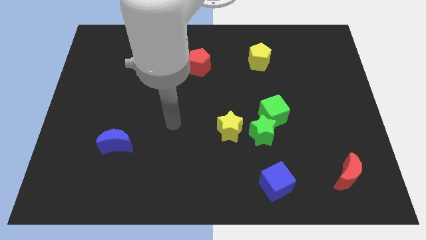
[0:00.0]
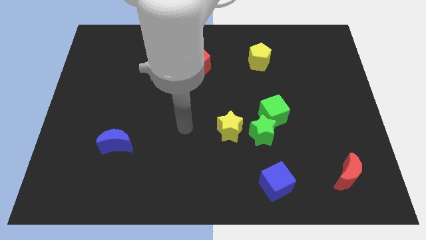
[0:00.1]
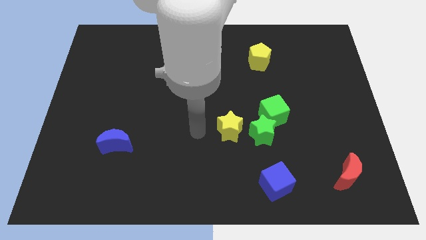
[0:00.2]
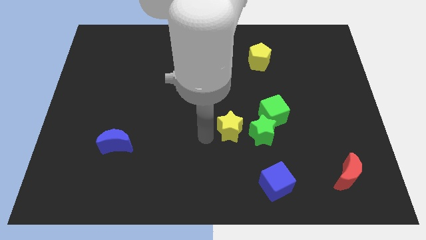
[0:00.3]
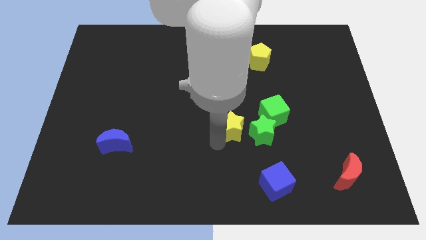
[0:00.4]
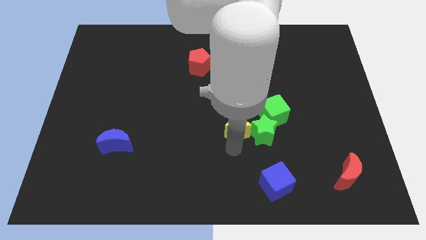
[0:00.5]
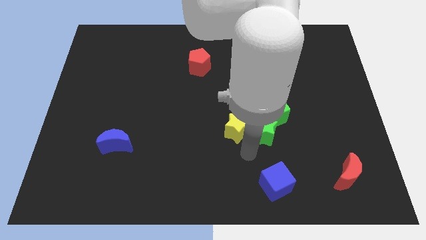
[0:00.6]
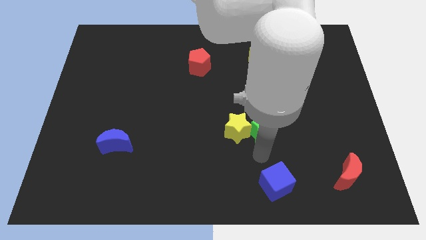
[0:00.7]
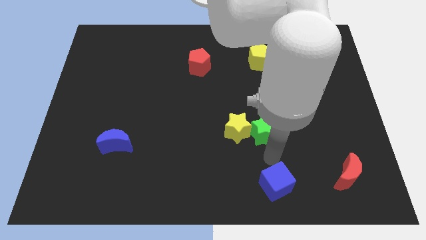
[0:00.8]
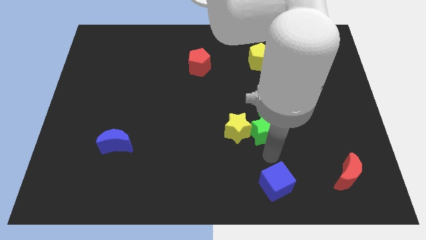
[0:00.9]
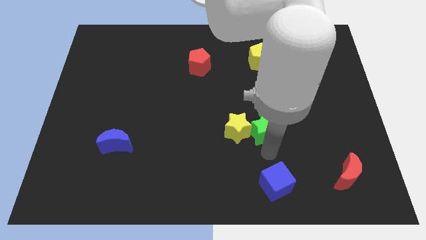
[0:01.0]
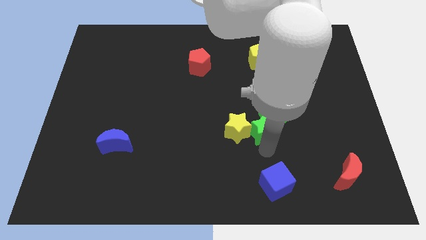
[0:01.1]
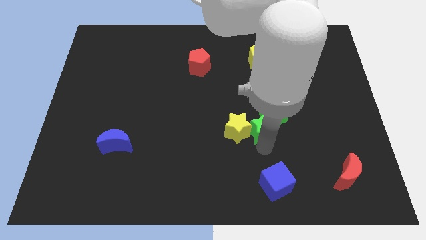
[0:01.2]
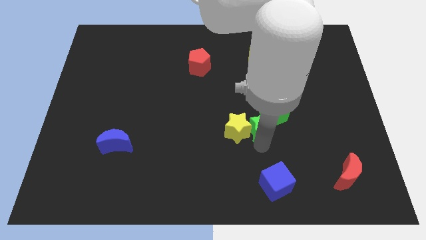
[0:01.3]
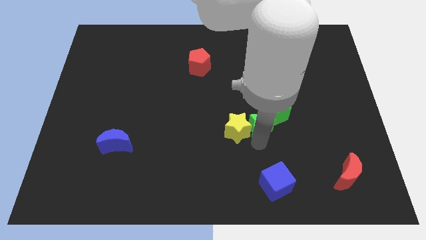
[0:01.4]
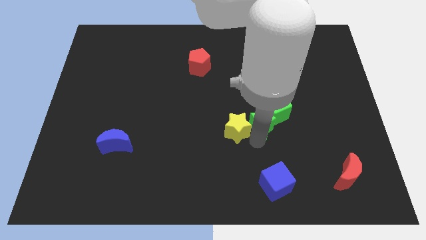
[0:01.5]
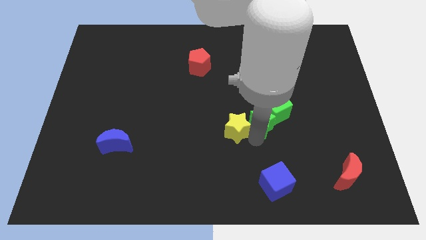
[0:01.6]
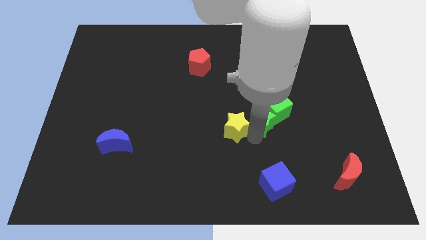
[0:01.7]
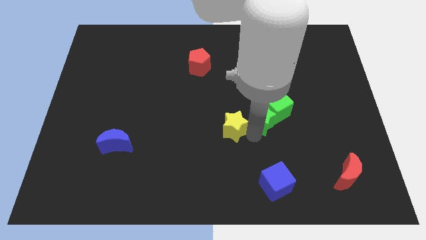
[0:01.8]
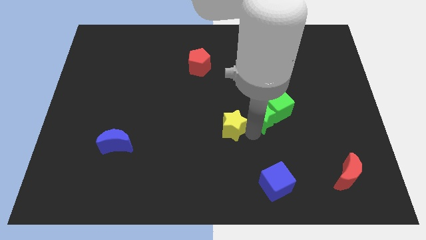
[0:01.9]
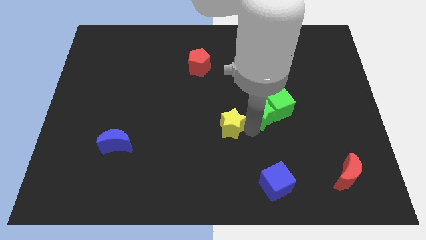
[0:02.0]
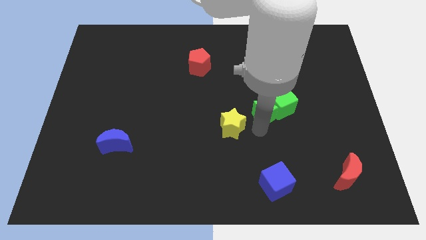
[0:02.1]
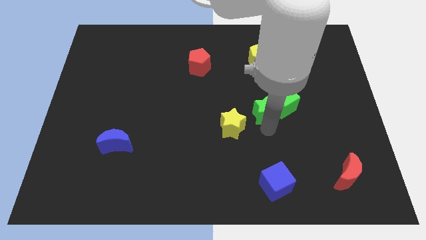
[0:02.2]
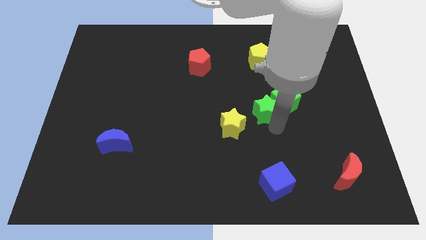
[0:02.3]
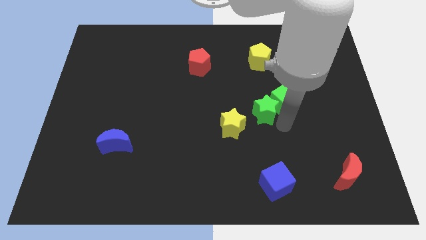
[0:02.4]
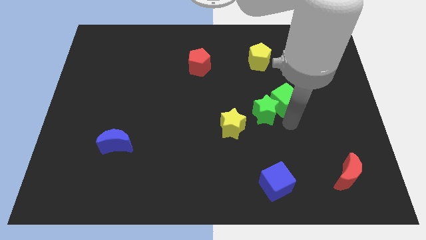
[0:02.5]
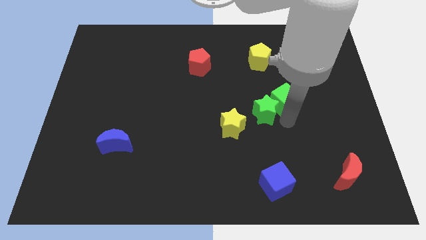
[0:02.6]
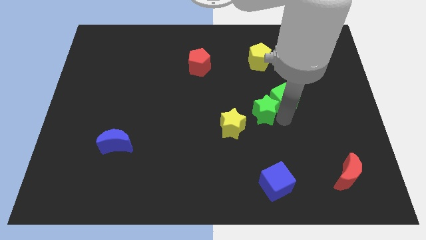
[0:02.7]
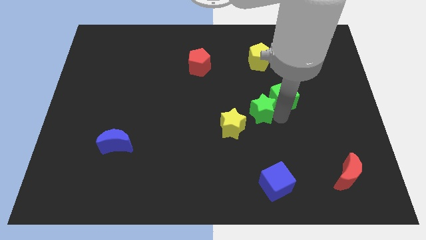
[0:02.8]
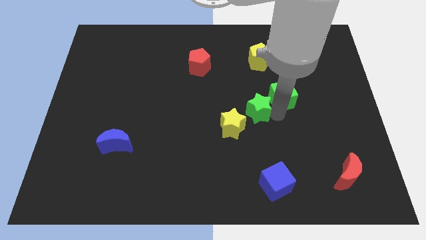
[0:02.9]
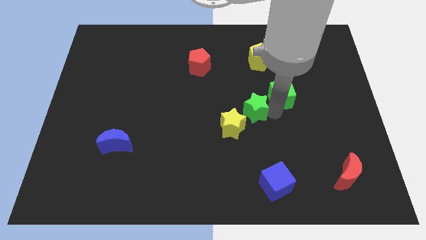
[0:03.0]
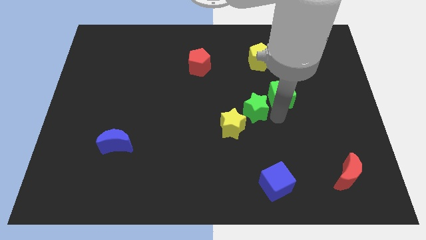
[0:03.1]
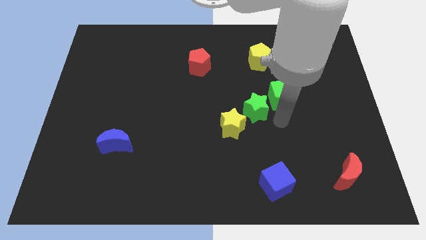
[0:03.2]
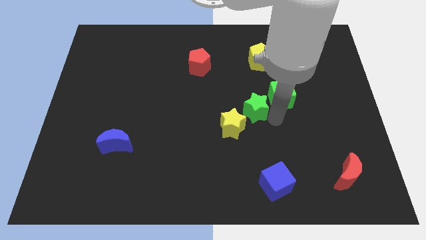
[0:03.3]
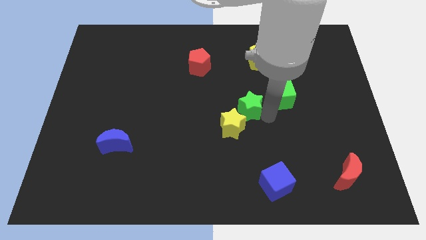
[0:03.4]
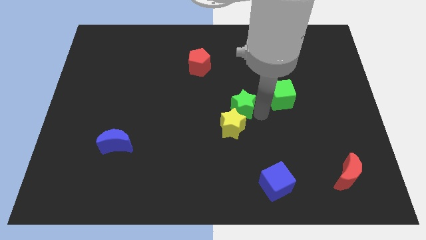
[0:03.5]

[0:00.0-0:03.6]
push the green star up and to the left diagonally a little bit

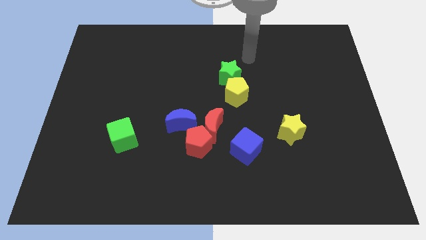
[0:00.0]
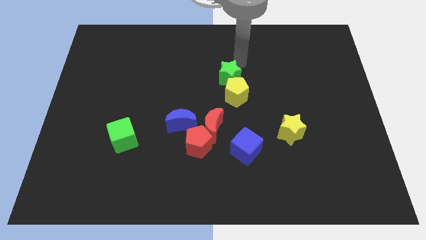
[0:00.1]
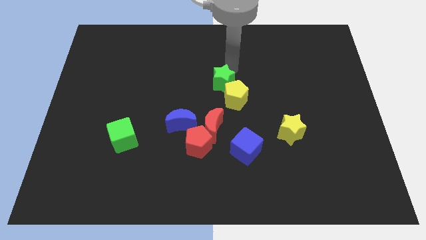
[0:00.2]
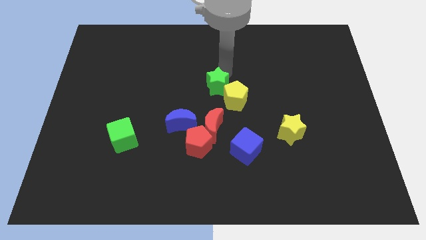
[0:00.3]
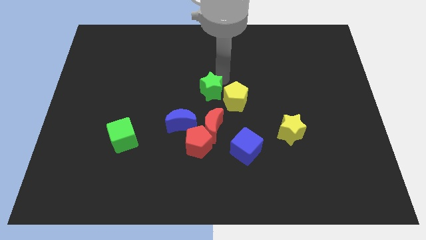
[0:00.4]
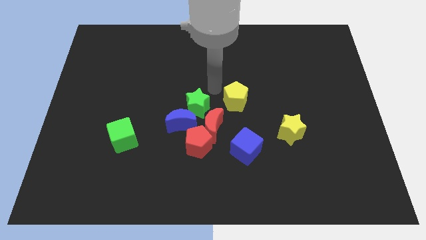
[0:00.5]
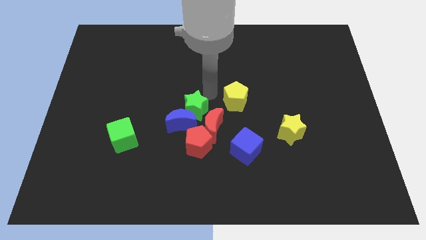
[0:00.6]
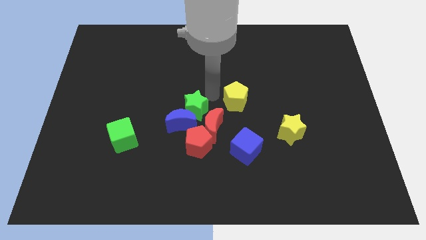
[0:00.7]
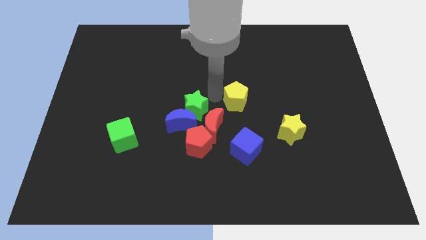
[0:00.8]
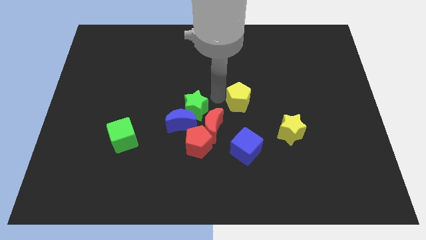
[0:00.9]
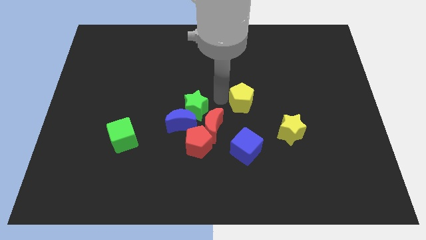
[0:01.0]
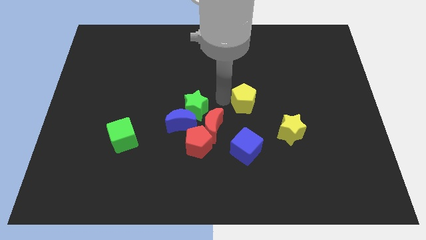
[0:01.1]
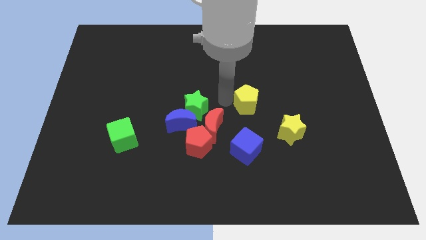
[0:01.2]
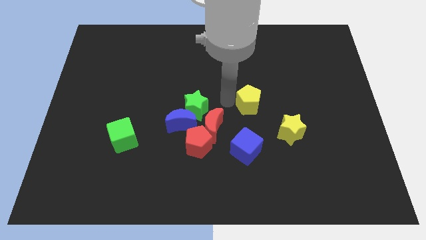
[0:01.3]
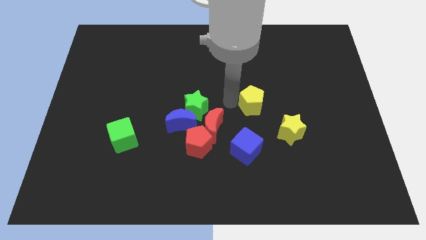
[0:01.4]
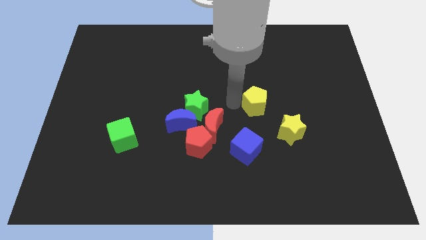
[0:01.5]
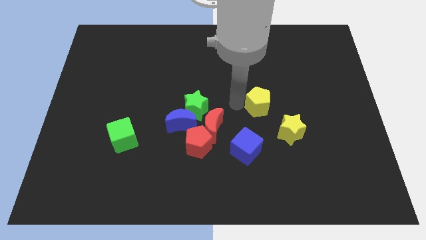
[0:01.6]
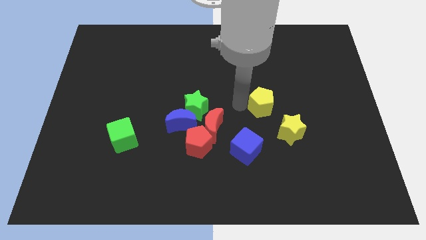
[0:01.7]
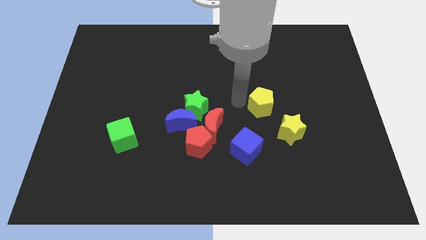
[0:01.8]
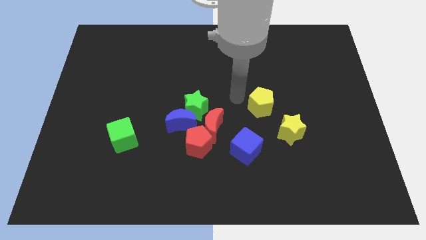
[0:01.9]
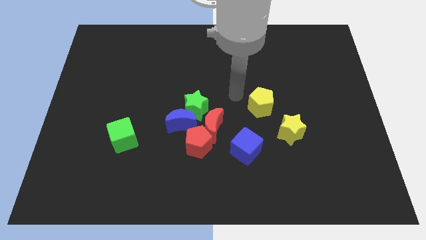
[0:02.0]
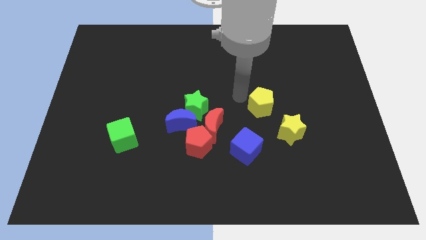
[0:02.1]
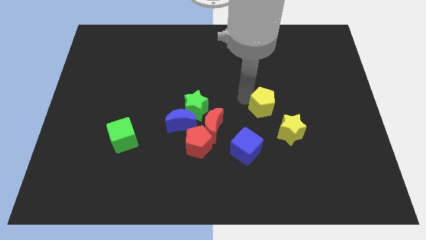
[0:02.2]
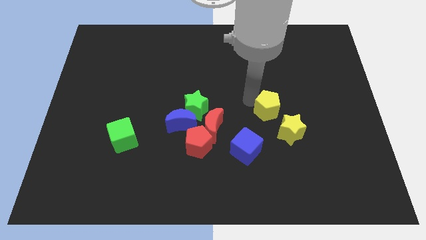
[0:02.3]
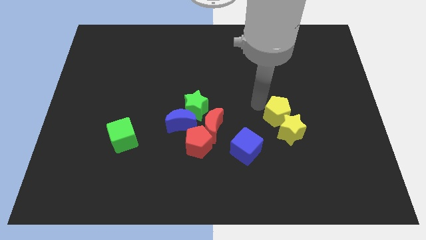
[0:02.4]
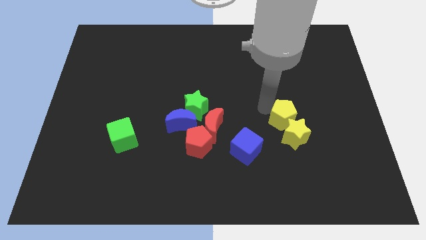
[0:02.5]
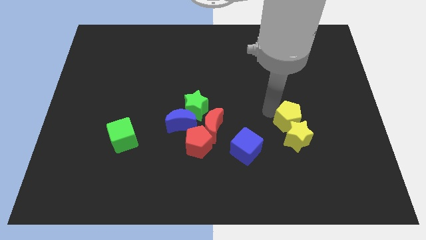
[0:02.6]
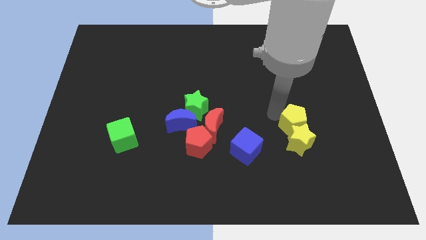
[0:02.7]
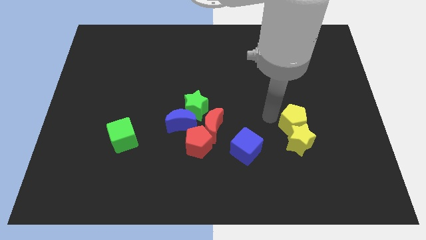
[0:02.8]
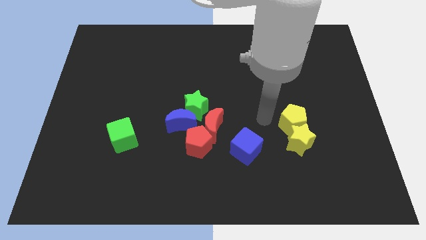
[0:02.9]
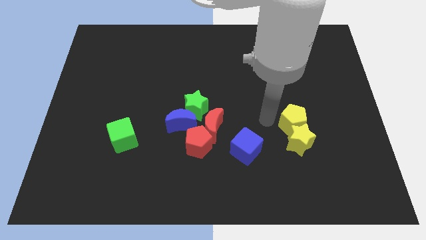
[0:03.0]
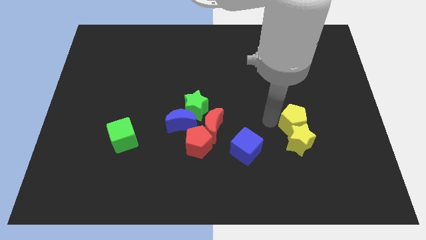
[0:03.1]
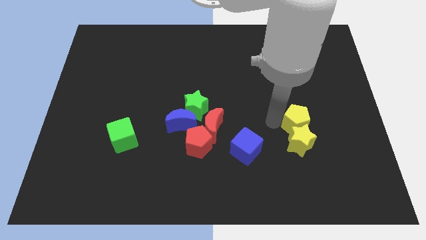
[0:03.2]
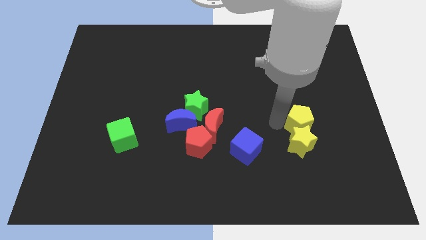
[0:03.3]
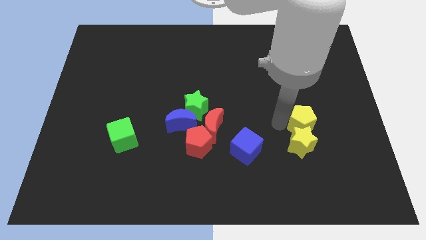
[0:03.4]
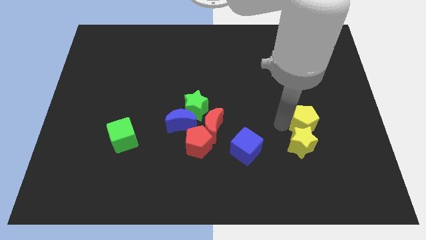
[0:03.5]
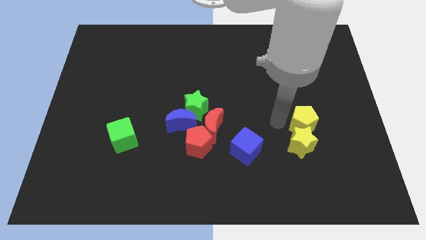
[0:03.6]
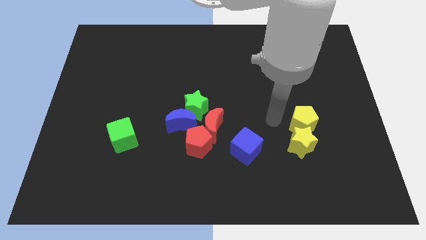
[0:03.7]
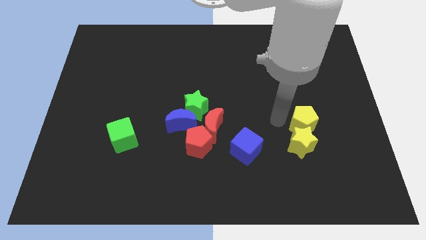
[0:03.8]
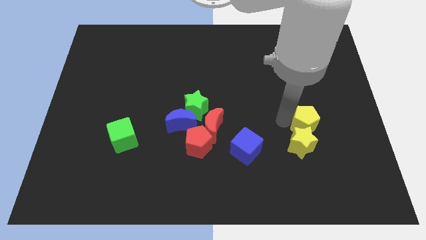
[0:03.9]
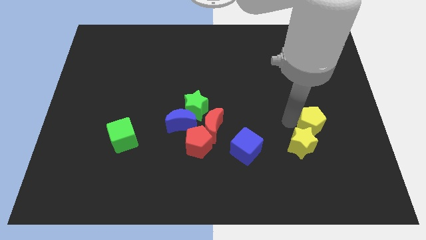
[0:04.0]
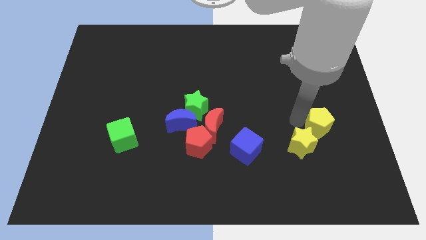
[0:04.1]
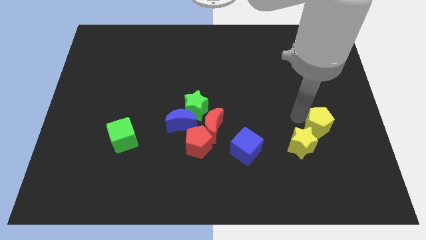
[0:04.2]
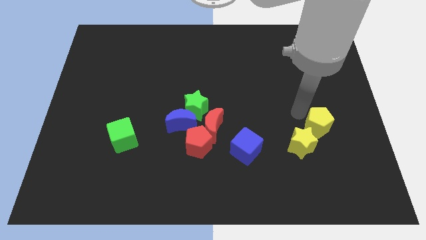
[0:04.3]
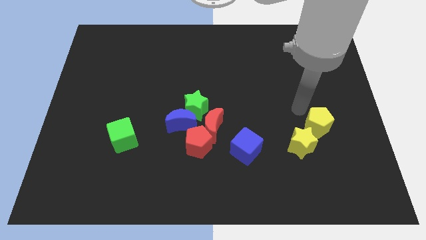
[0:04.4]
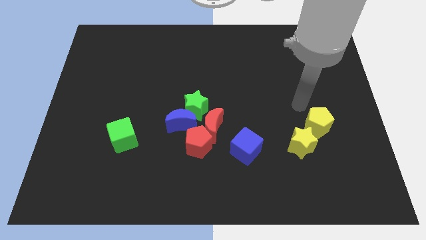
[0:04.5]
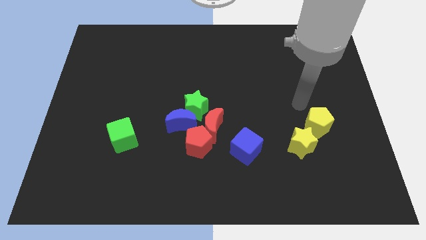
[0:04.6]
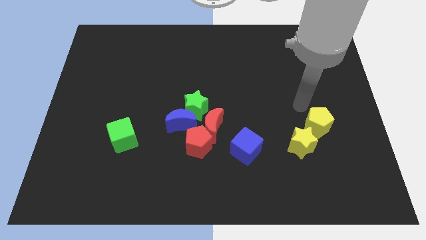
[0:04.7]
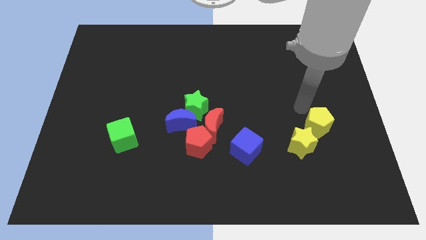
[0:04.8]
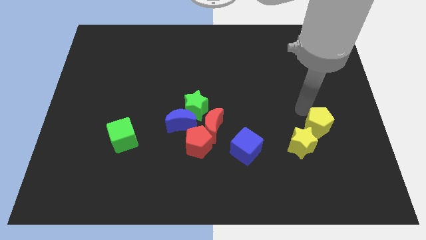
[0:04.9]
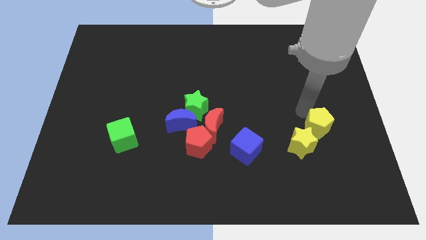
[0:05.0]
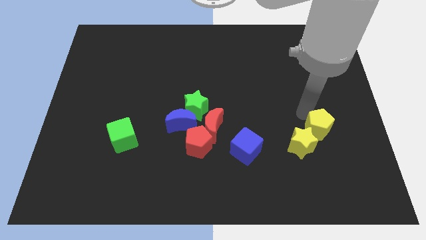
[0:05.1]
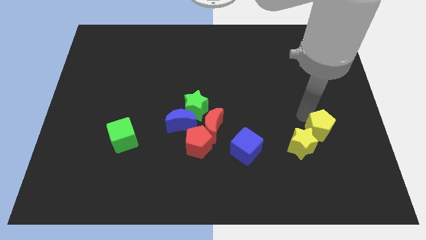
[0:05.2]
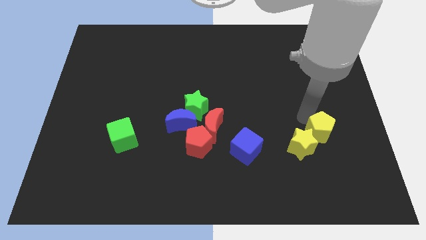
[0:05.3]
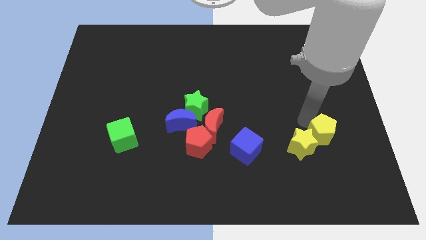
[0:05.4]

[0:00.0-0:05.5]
move the yellow pentagon diagonally down and right
